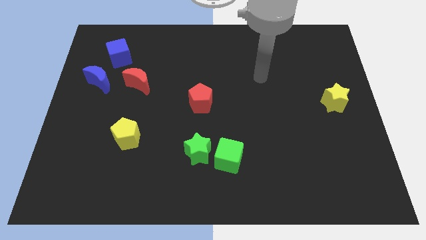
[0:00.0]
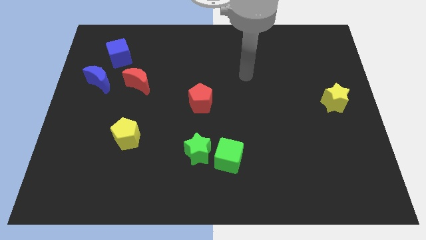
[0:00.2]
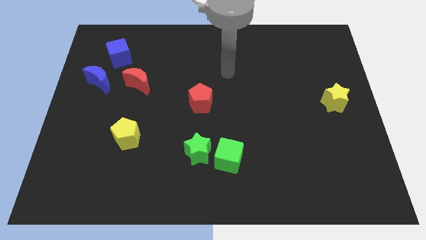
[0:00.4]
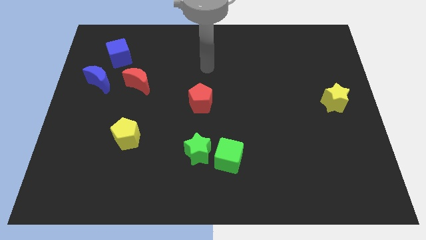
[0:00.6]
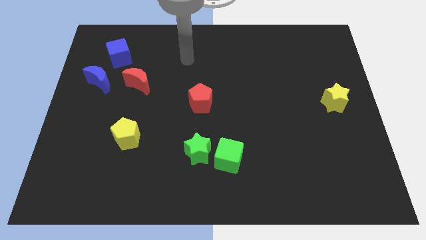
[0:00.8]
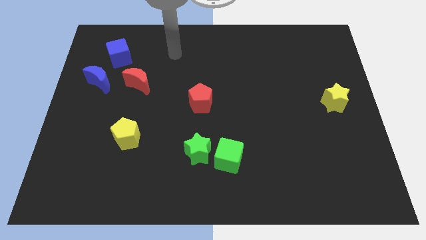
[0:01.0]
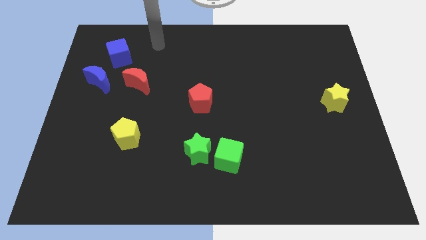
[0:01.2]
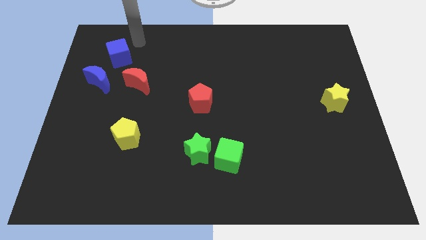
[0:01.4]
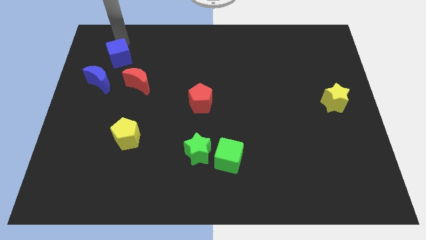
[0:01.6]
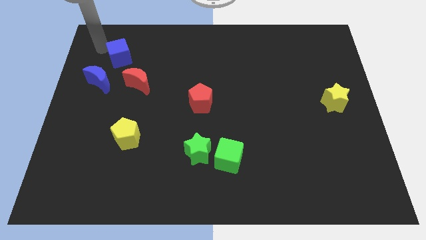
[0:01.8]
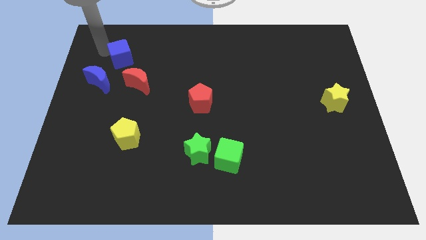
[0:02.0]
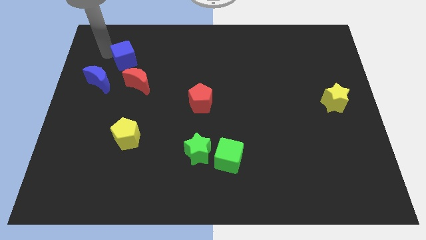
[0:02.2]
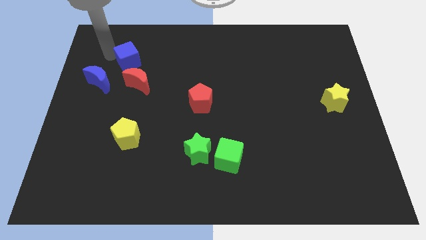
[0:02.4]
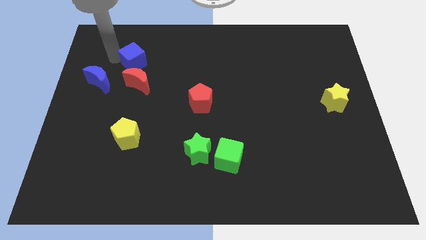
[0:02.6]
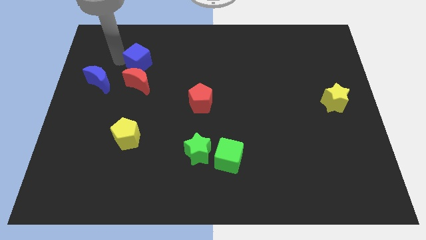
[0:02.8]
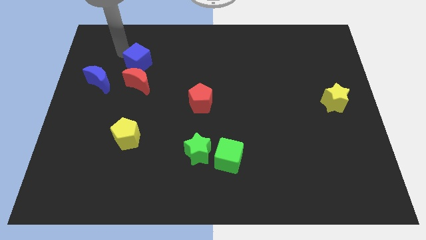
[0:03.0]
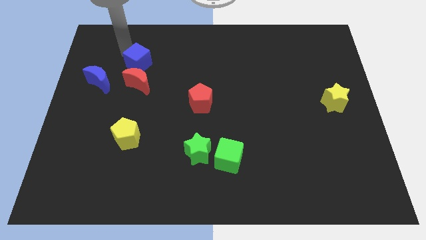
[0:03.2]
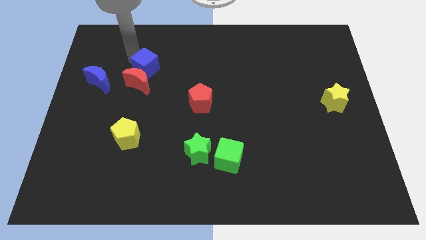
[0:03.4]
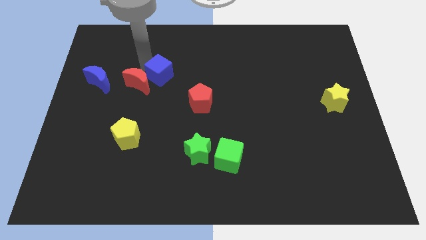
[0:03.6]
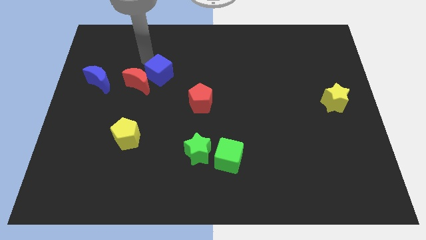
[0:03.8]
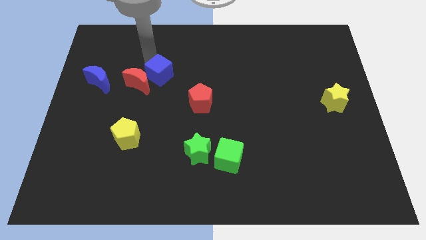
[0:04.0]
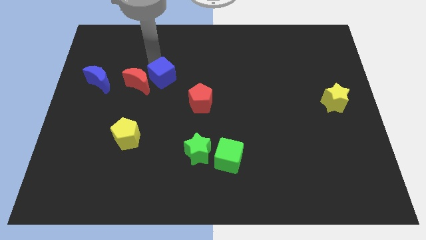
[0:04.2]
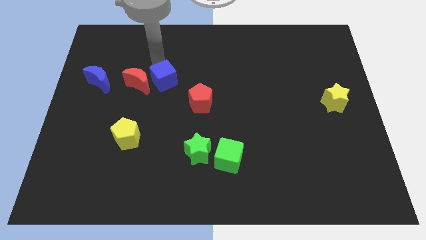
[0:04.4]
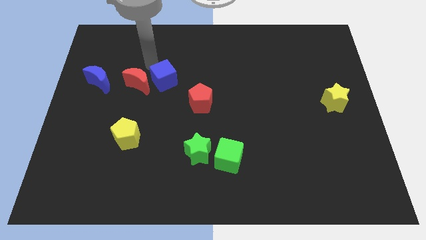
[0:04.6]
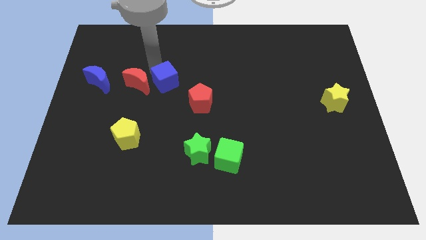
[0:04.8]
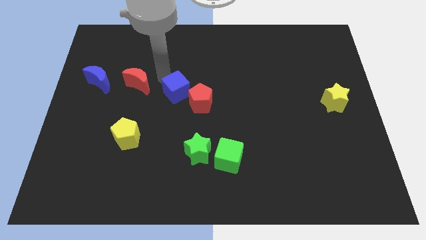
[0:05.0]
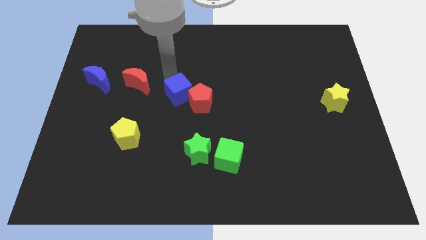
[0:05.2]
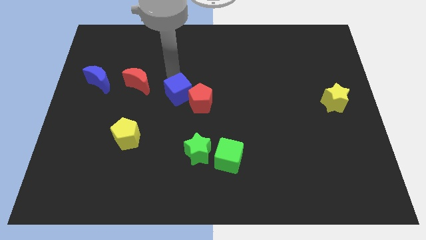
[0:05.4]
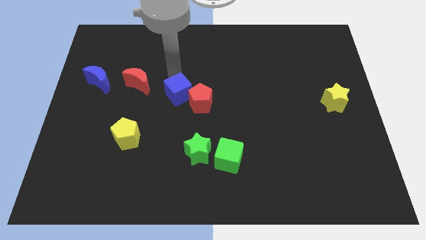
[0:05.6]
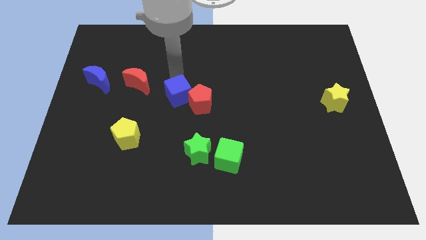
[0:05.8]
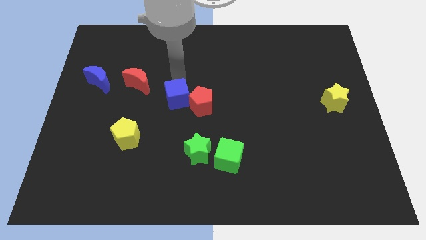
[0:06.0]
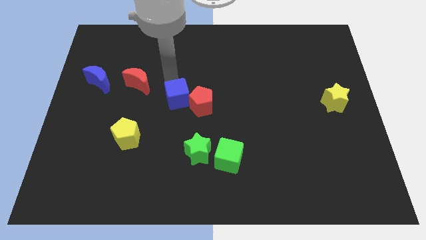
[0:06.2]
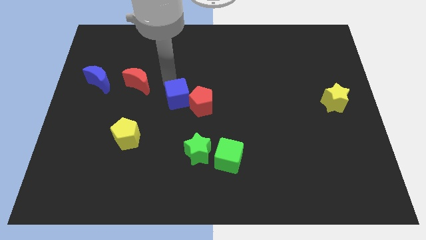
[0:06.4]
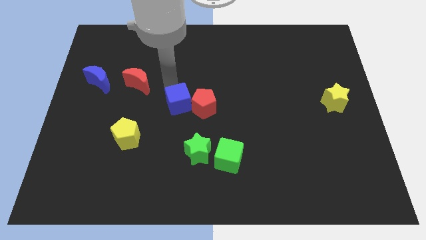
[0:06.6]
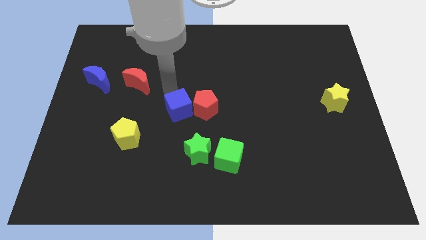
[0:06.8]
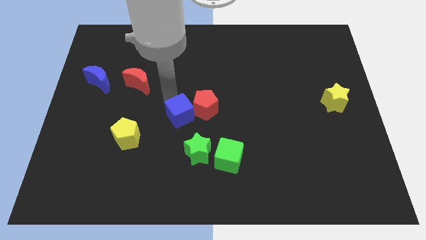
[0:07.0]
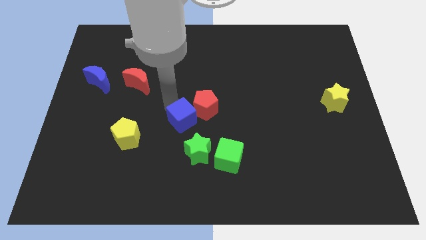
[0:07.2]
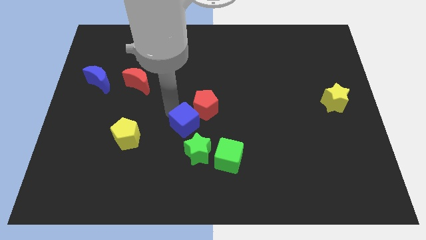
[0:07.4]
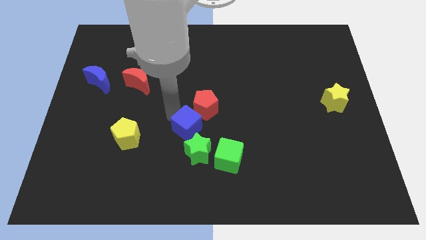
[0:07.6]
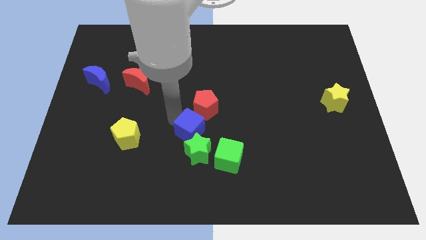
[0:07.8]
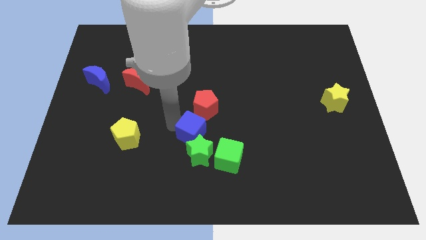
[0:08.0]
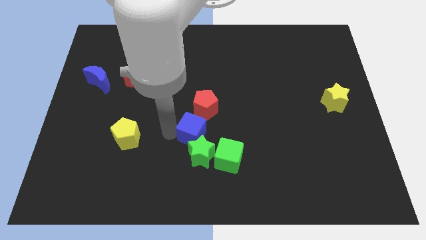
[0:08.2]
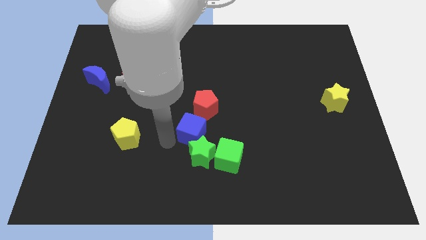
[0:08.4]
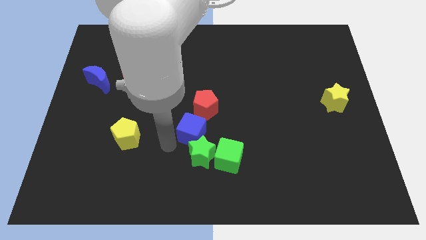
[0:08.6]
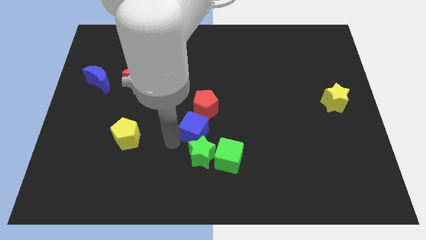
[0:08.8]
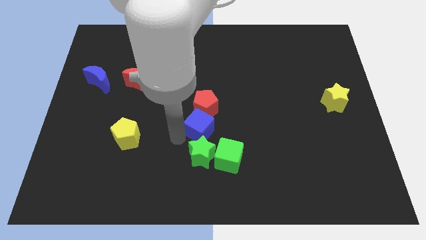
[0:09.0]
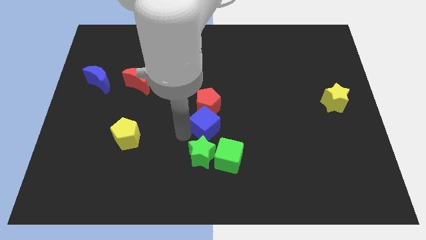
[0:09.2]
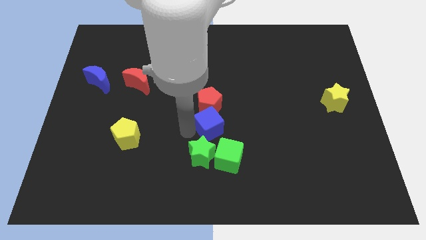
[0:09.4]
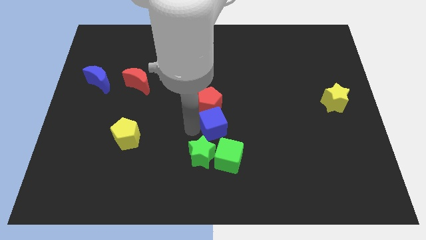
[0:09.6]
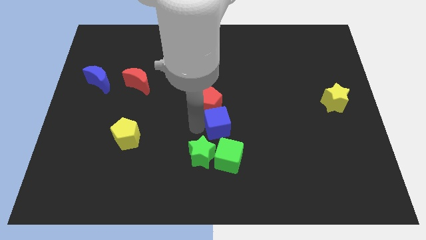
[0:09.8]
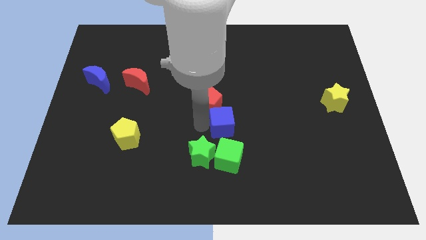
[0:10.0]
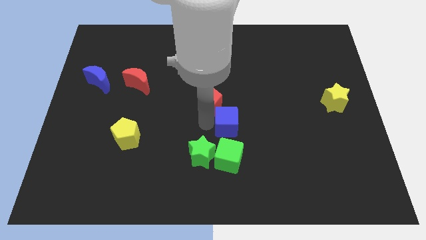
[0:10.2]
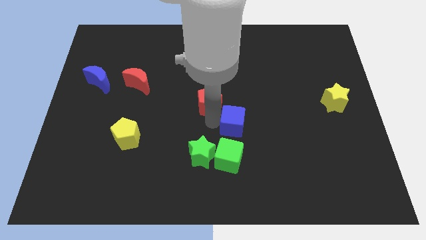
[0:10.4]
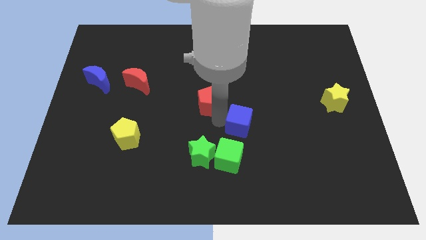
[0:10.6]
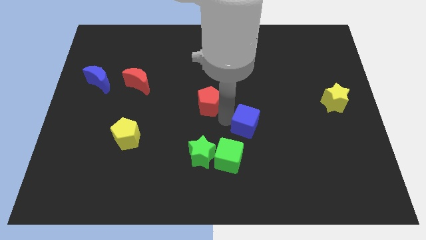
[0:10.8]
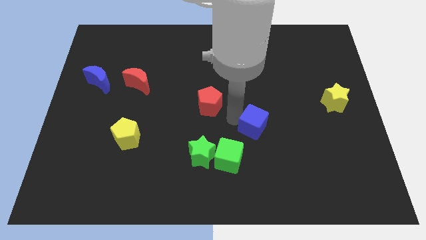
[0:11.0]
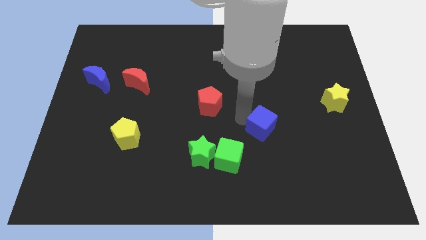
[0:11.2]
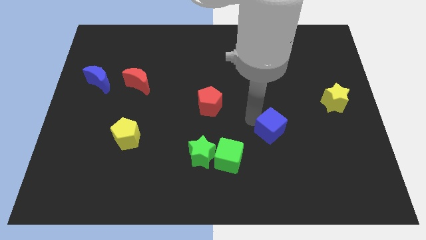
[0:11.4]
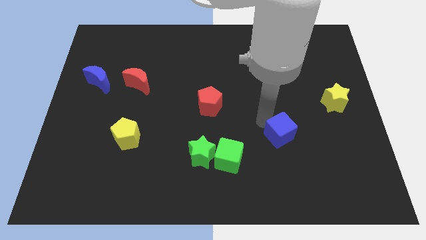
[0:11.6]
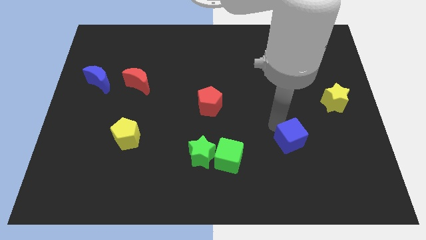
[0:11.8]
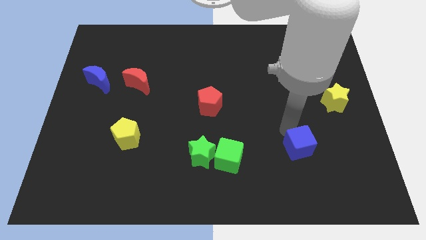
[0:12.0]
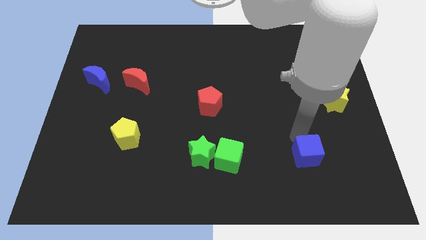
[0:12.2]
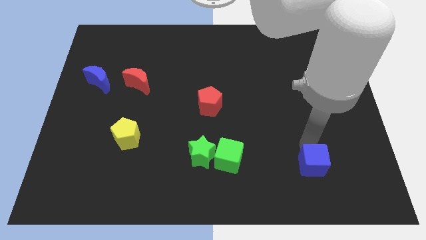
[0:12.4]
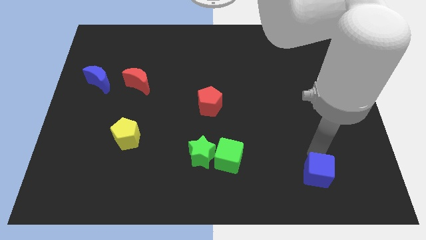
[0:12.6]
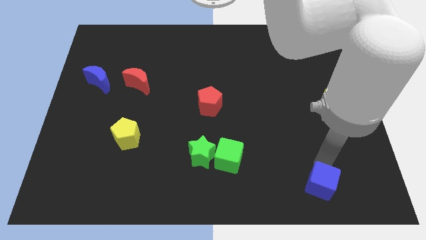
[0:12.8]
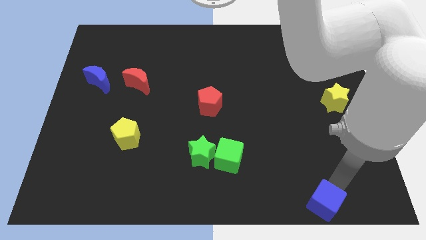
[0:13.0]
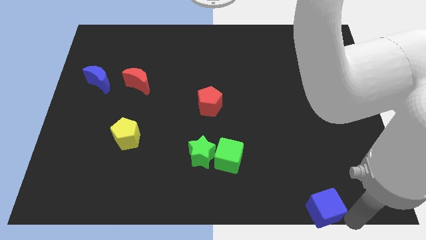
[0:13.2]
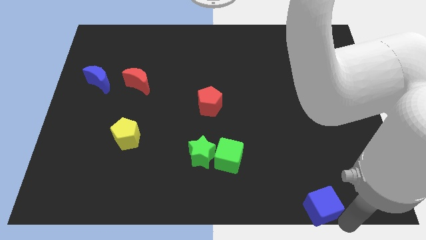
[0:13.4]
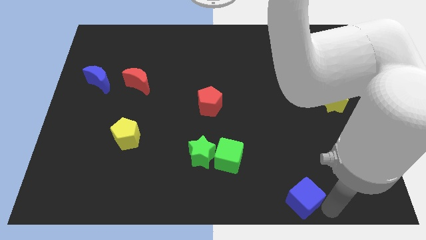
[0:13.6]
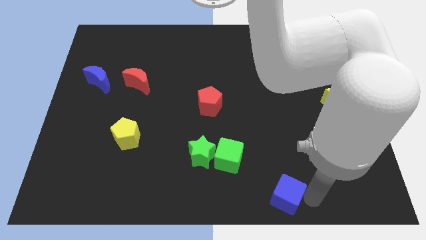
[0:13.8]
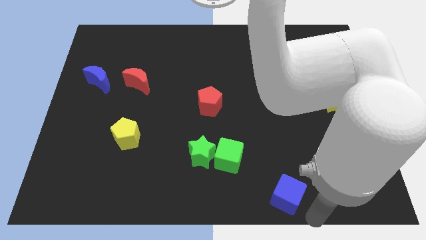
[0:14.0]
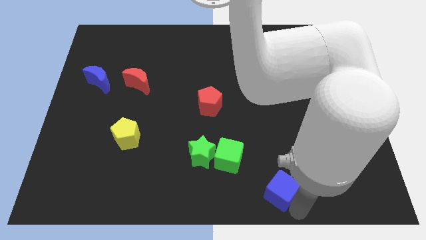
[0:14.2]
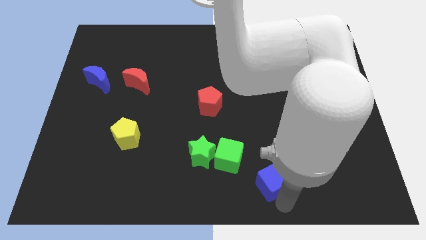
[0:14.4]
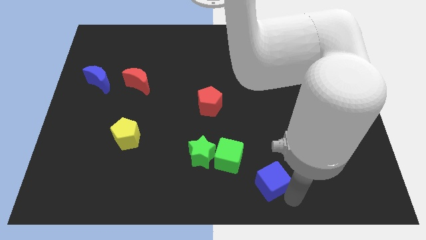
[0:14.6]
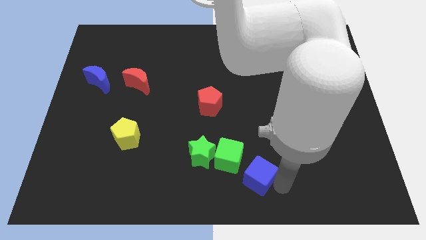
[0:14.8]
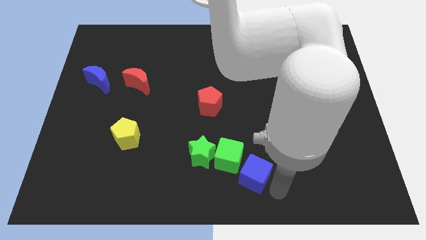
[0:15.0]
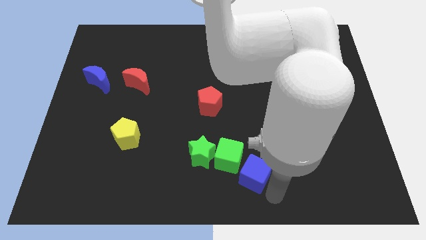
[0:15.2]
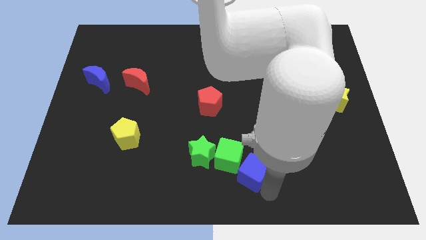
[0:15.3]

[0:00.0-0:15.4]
slide the blue cube close to the green cube
